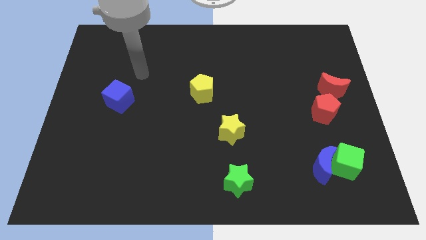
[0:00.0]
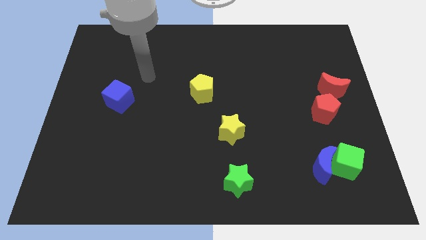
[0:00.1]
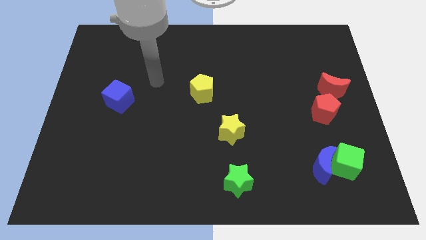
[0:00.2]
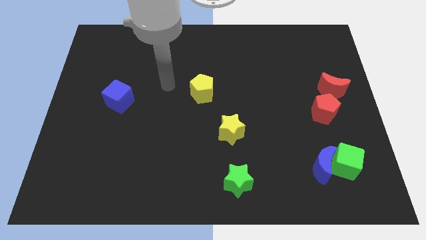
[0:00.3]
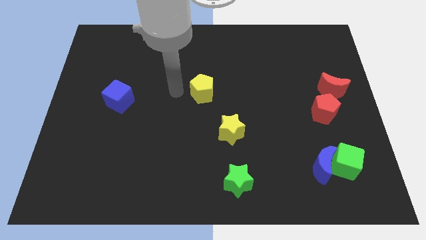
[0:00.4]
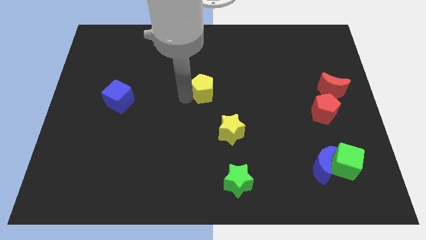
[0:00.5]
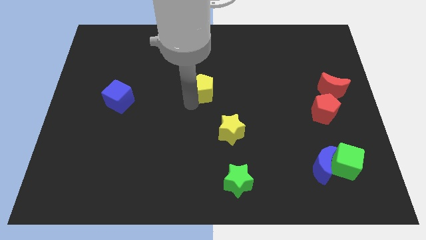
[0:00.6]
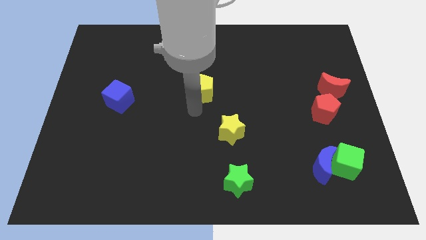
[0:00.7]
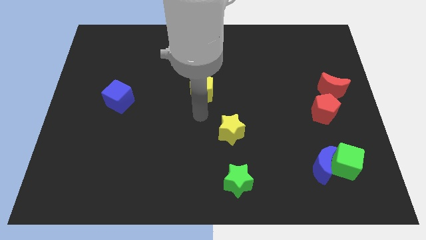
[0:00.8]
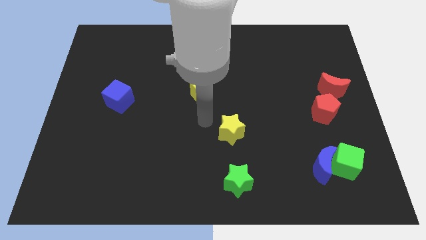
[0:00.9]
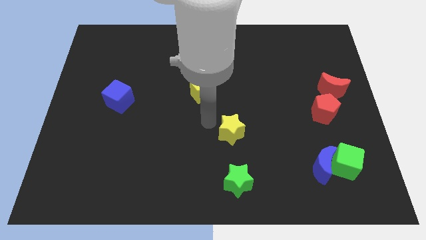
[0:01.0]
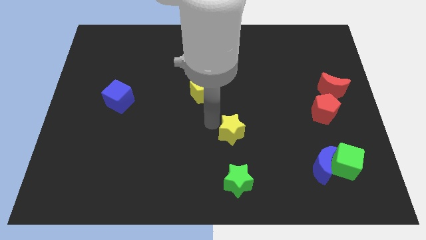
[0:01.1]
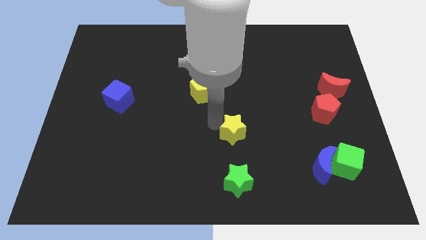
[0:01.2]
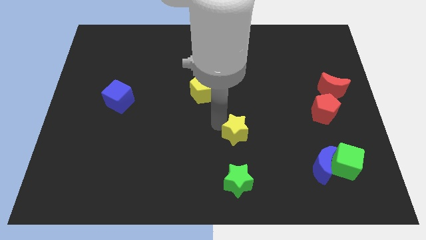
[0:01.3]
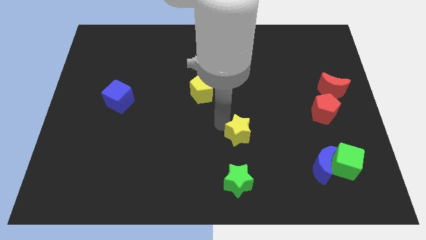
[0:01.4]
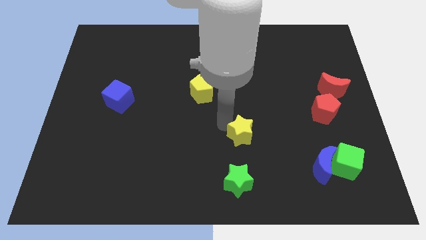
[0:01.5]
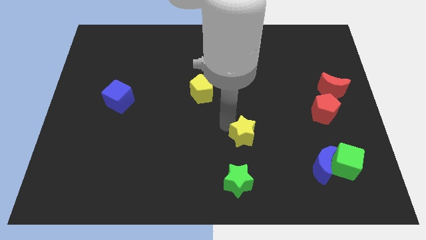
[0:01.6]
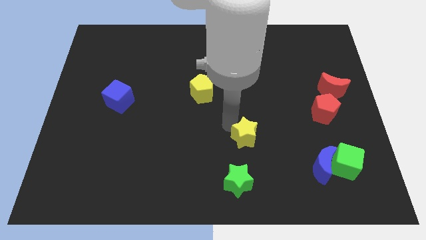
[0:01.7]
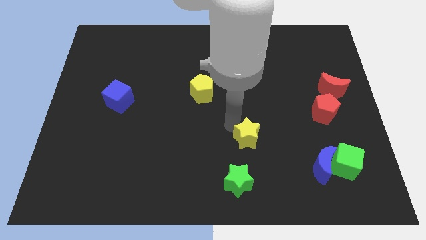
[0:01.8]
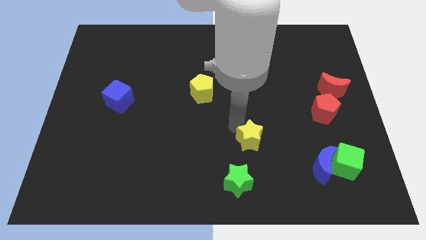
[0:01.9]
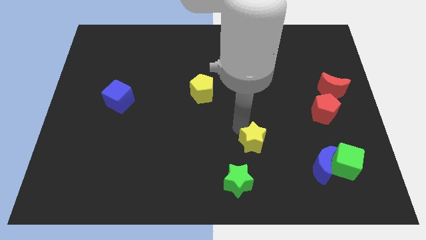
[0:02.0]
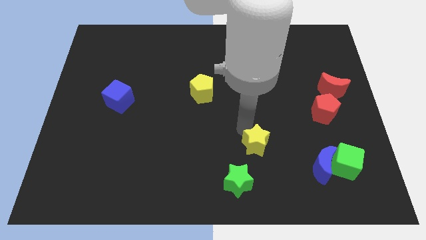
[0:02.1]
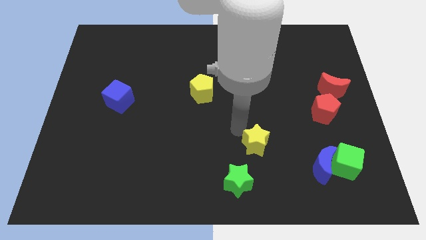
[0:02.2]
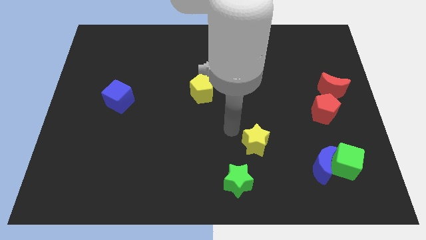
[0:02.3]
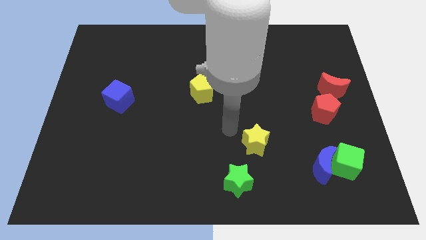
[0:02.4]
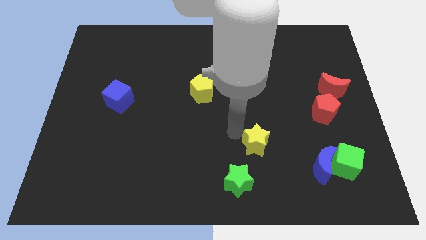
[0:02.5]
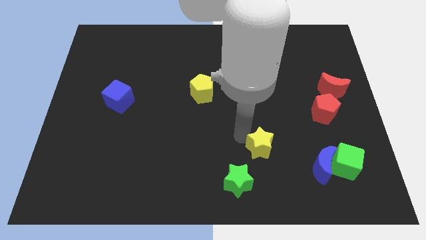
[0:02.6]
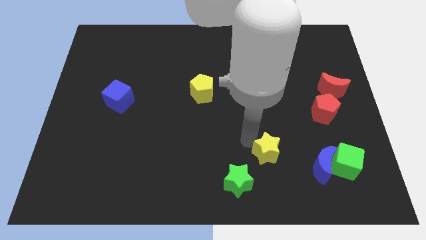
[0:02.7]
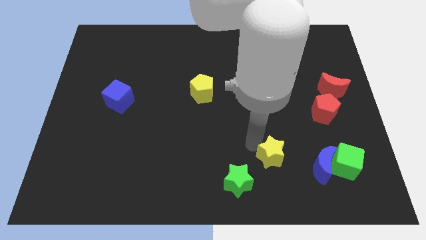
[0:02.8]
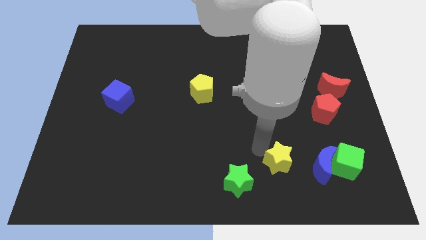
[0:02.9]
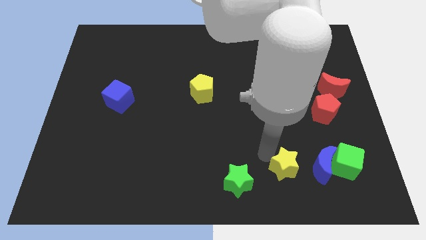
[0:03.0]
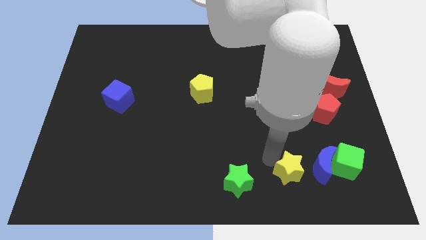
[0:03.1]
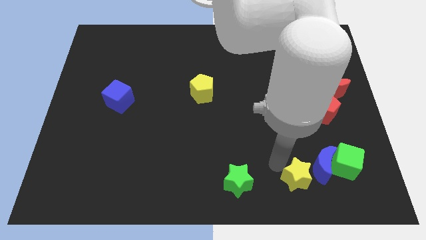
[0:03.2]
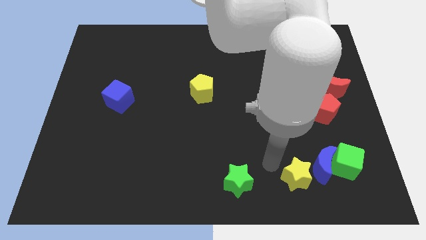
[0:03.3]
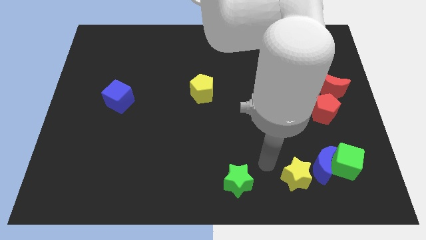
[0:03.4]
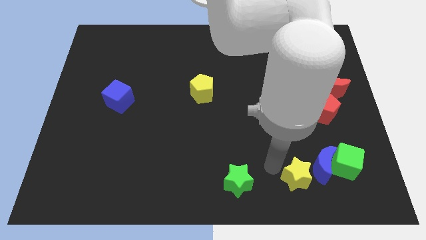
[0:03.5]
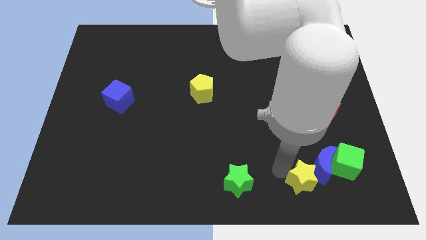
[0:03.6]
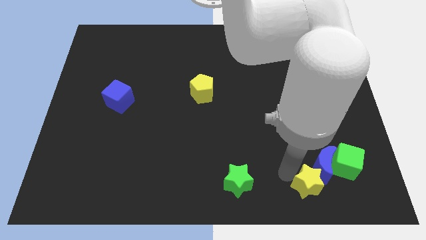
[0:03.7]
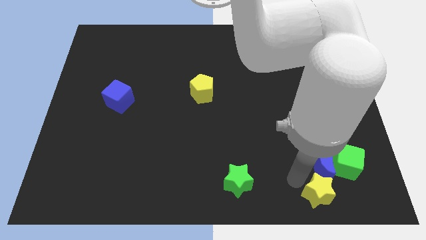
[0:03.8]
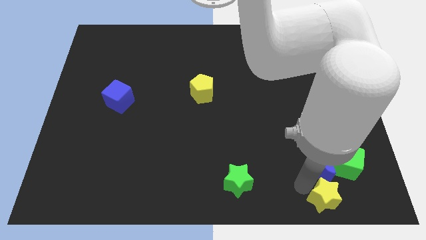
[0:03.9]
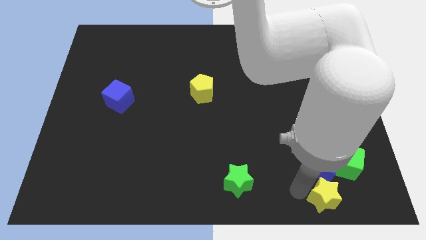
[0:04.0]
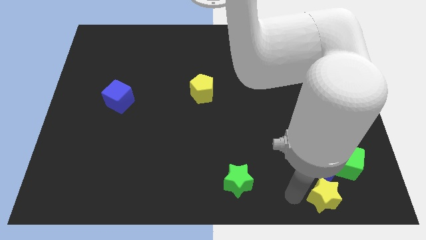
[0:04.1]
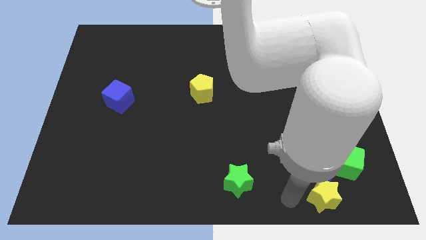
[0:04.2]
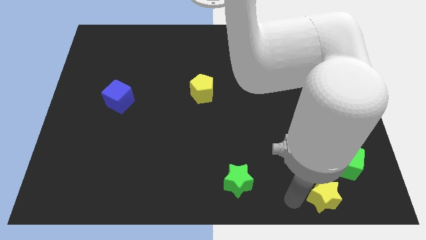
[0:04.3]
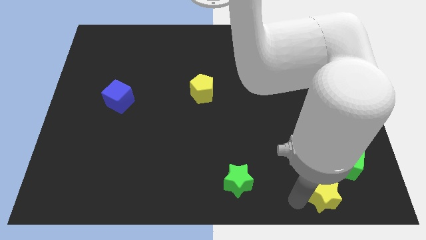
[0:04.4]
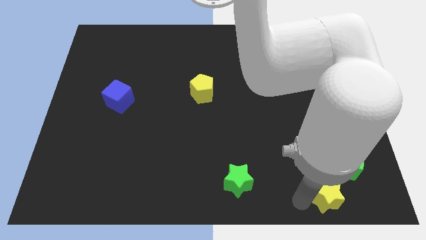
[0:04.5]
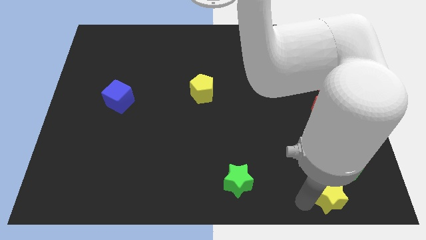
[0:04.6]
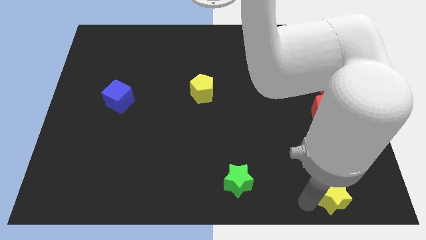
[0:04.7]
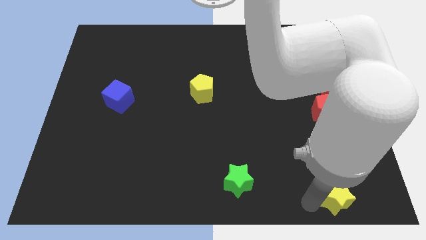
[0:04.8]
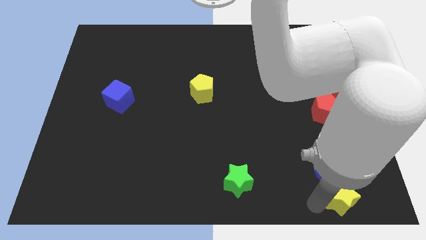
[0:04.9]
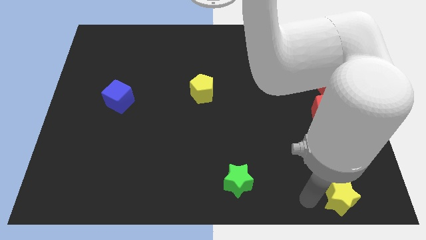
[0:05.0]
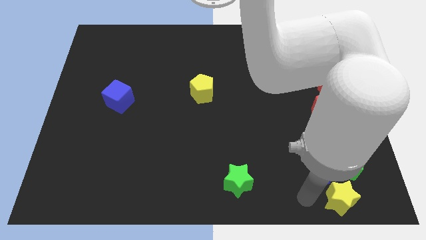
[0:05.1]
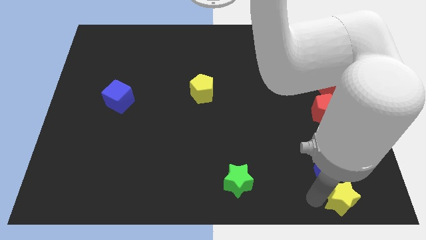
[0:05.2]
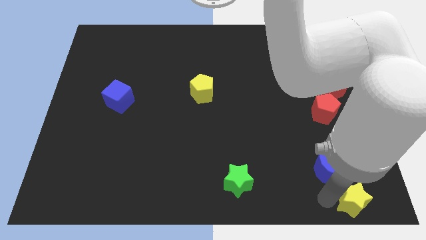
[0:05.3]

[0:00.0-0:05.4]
slide the yellow star to the bottom right
